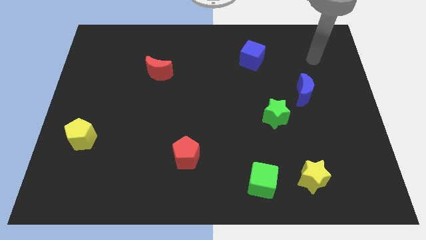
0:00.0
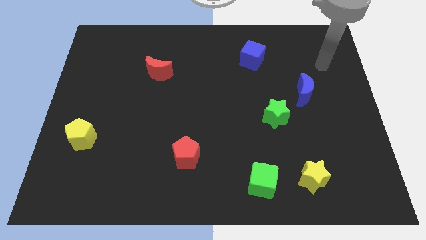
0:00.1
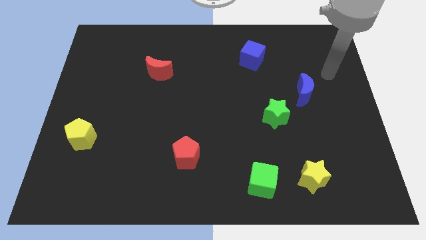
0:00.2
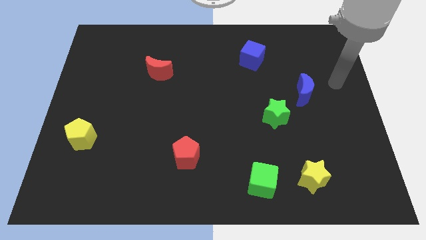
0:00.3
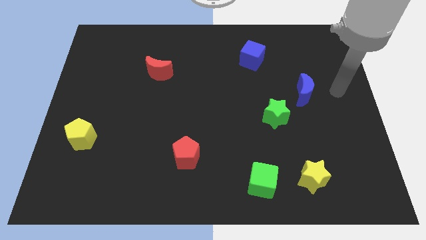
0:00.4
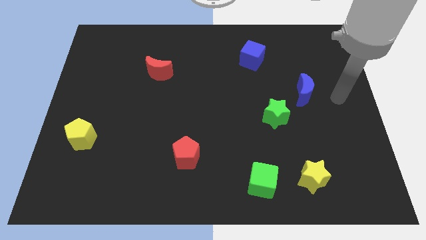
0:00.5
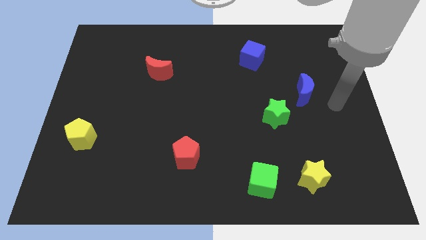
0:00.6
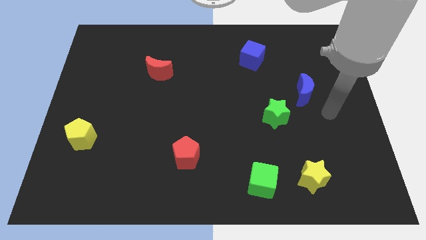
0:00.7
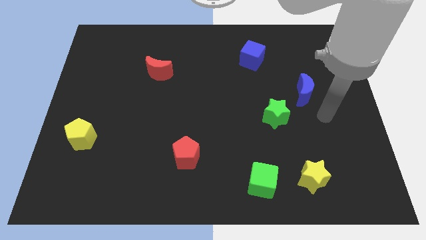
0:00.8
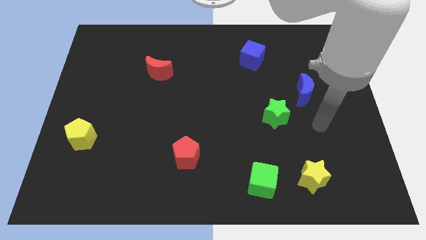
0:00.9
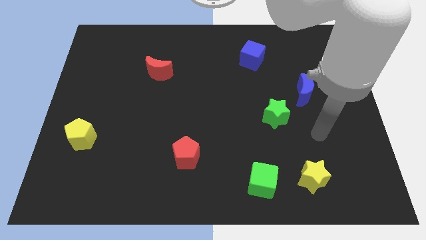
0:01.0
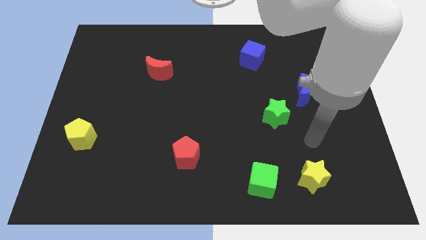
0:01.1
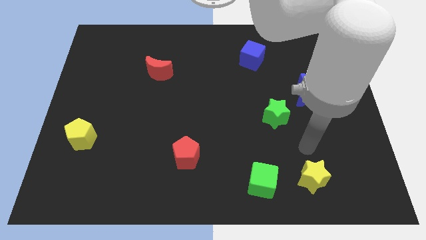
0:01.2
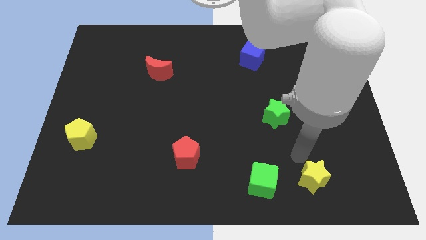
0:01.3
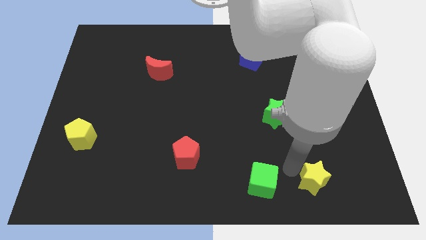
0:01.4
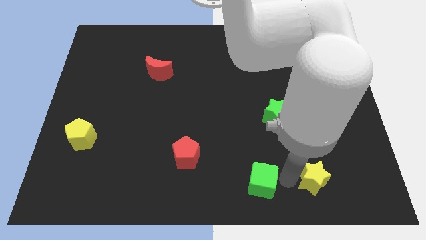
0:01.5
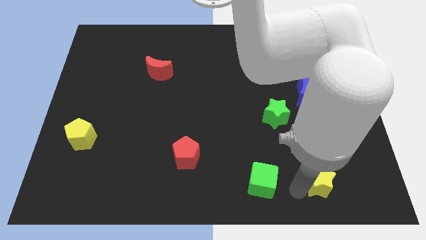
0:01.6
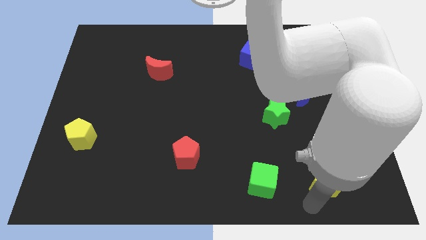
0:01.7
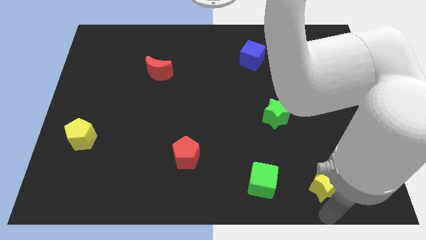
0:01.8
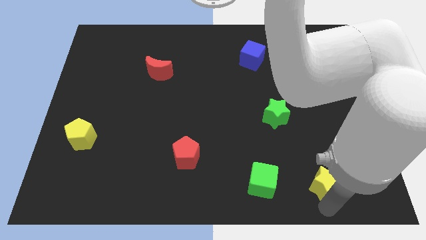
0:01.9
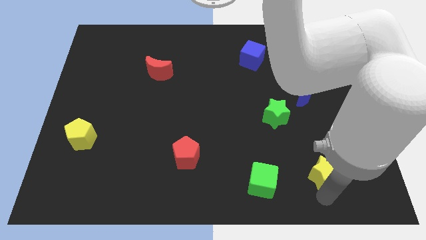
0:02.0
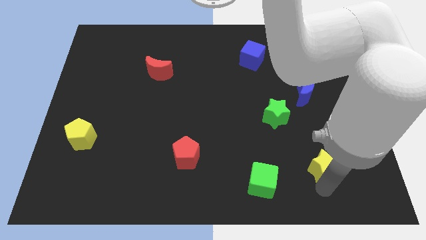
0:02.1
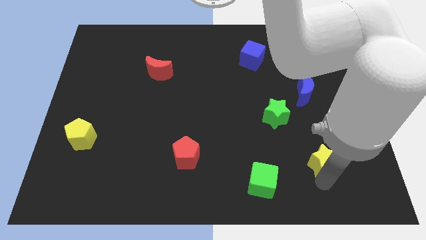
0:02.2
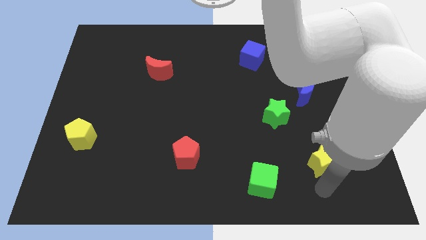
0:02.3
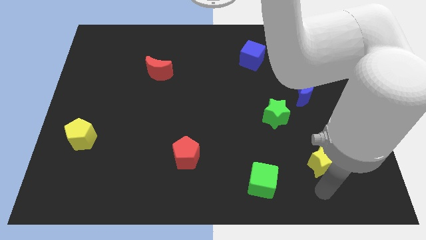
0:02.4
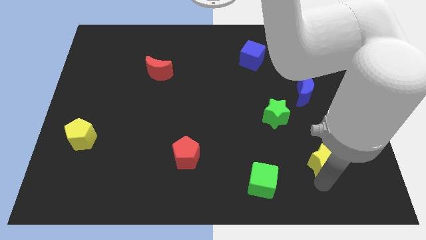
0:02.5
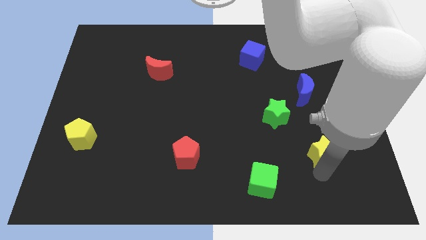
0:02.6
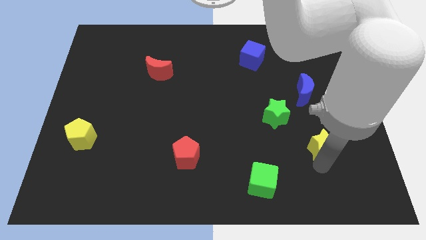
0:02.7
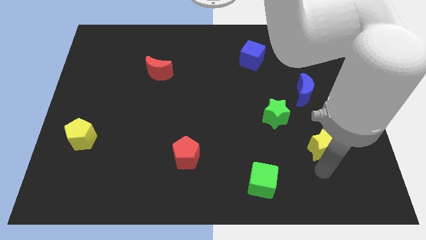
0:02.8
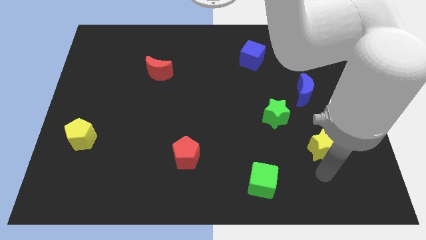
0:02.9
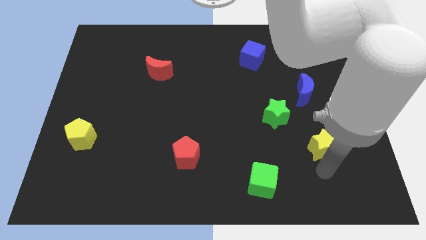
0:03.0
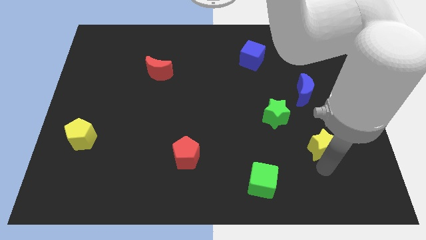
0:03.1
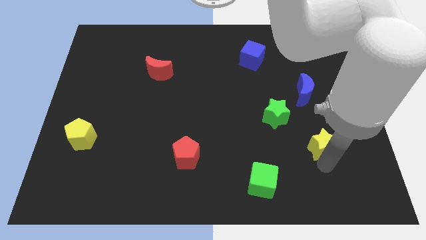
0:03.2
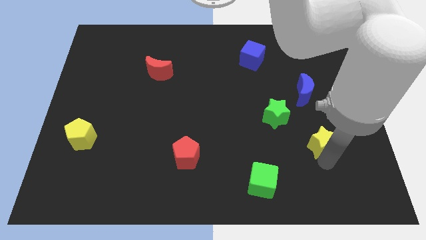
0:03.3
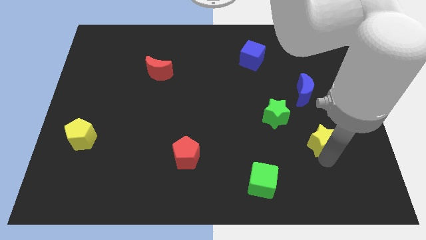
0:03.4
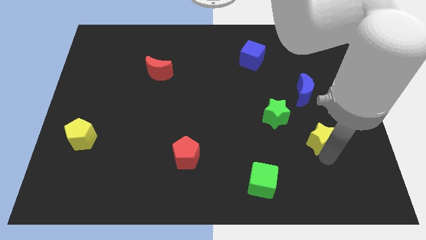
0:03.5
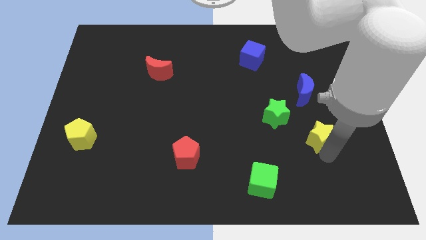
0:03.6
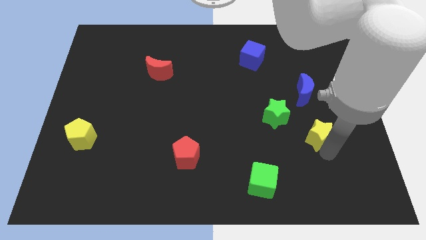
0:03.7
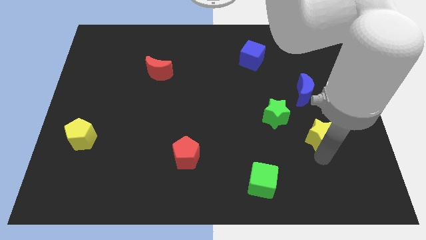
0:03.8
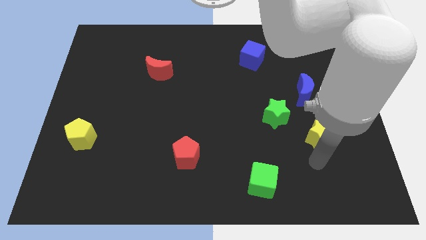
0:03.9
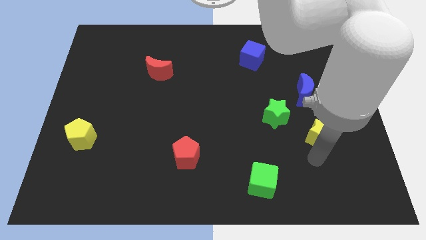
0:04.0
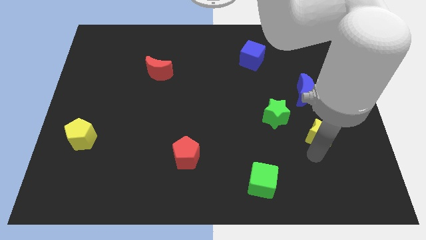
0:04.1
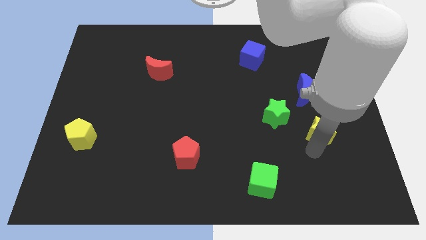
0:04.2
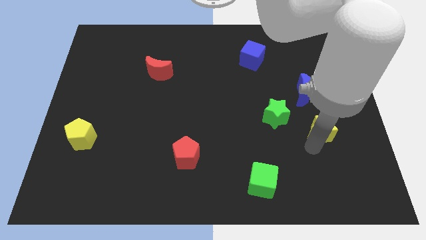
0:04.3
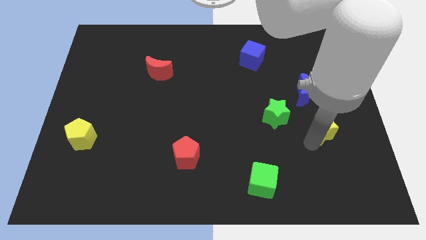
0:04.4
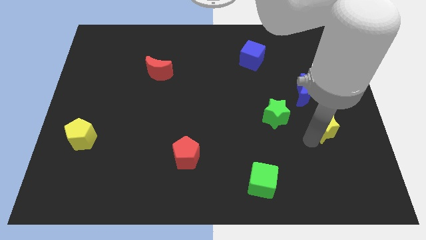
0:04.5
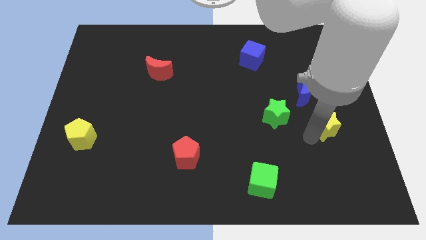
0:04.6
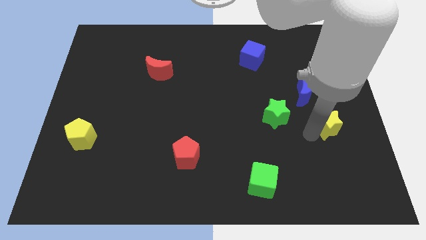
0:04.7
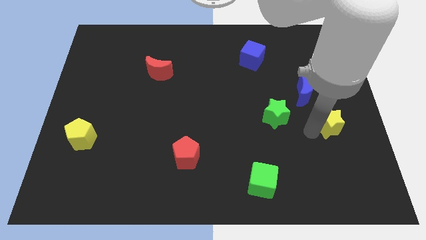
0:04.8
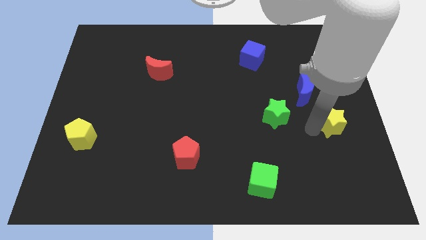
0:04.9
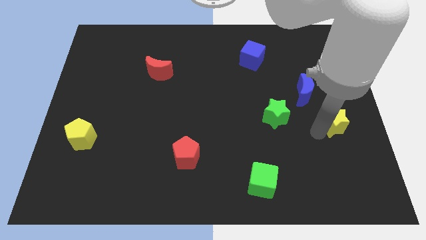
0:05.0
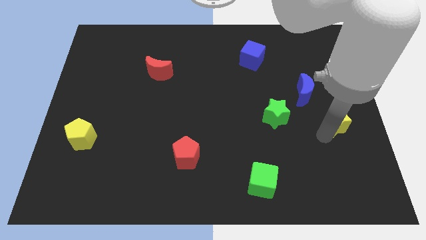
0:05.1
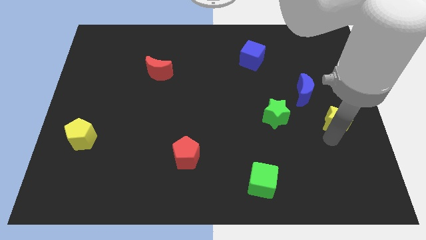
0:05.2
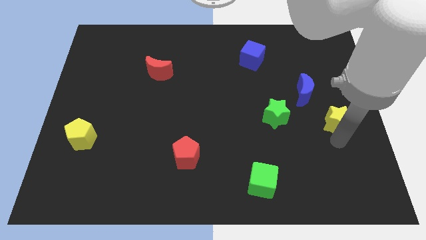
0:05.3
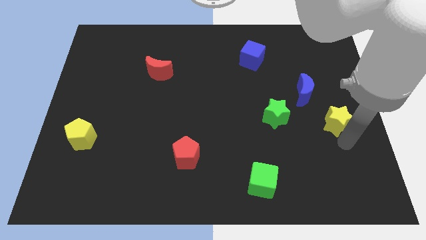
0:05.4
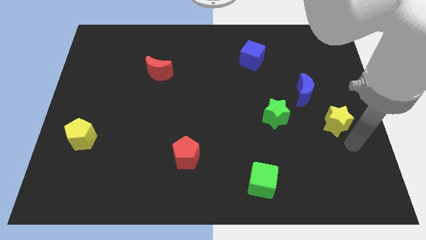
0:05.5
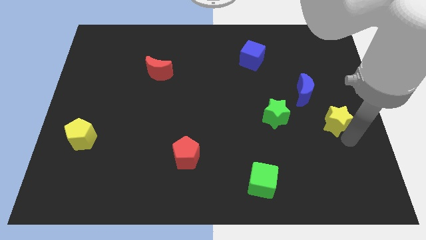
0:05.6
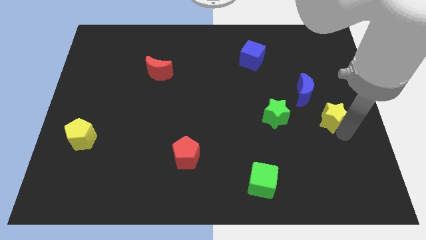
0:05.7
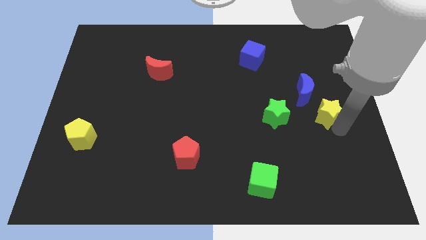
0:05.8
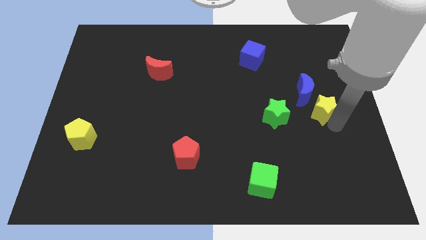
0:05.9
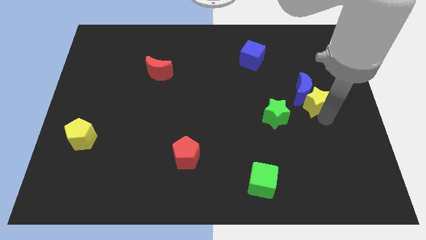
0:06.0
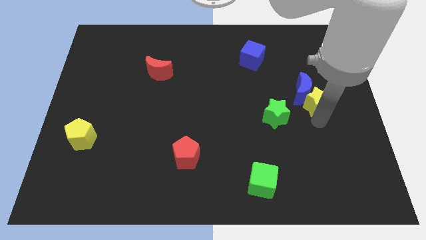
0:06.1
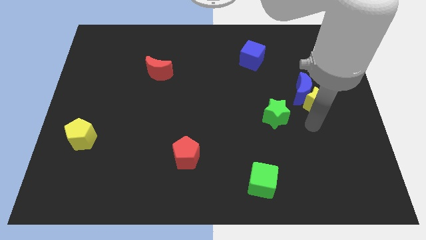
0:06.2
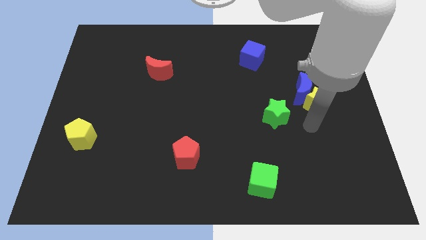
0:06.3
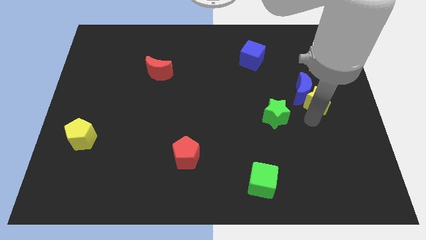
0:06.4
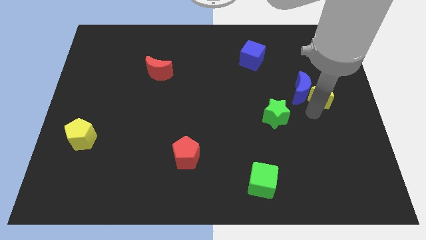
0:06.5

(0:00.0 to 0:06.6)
put the yellow star to the top right of the blue moon

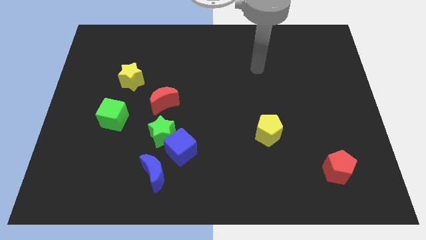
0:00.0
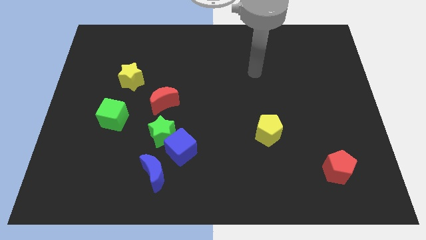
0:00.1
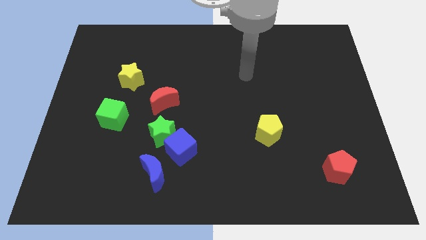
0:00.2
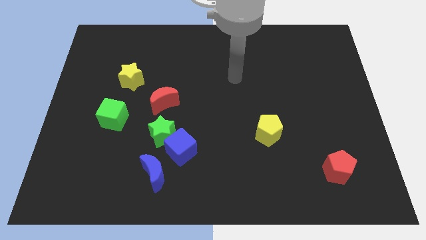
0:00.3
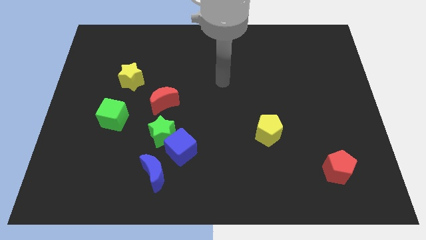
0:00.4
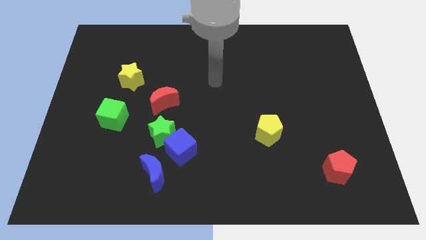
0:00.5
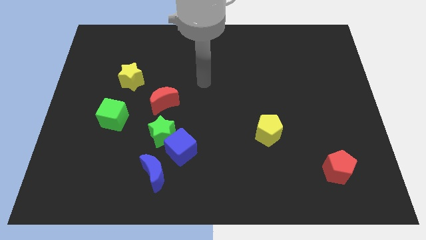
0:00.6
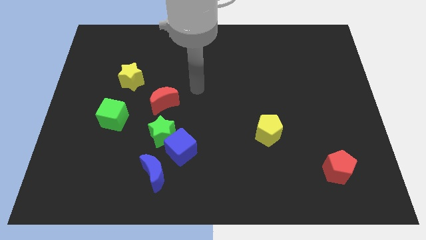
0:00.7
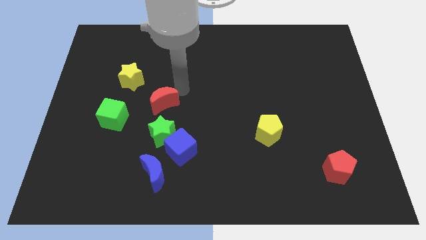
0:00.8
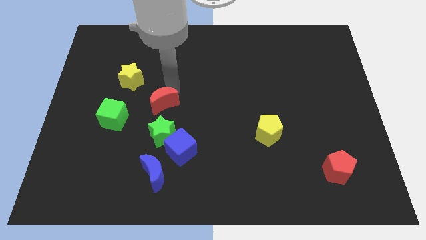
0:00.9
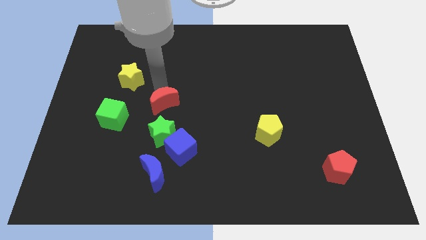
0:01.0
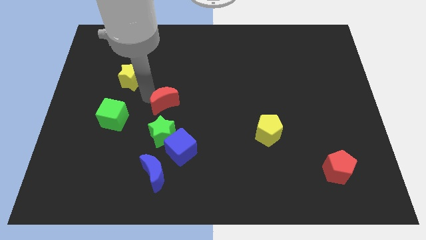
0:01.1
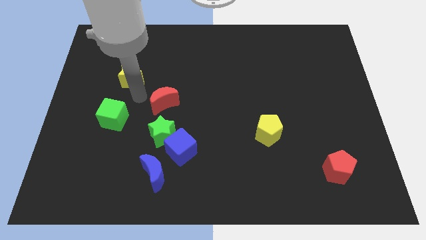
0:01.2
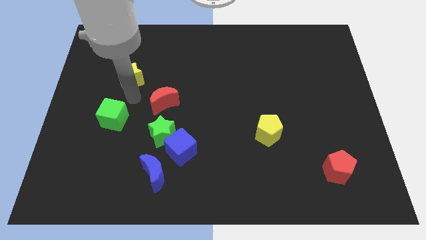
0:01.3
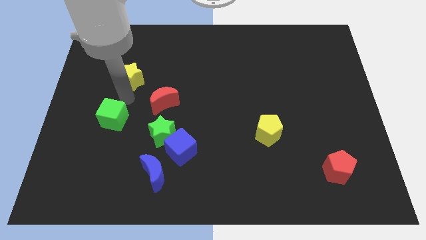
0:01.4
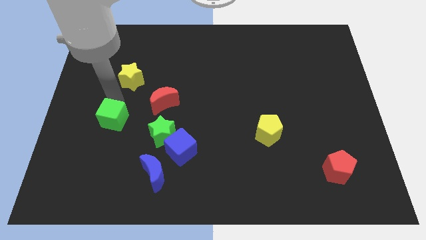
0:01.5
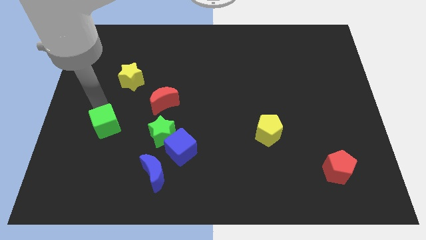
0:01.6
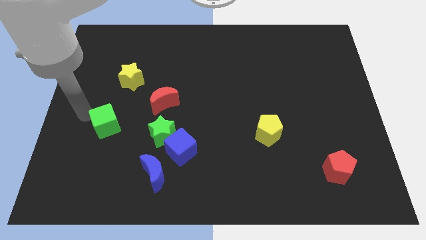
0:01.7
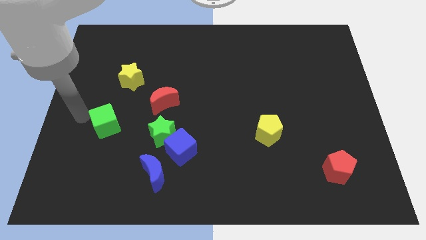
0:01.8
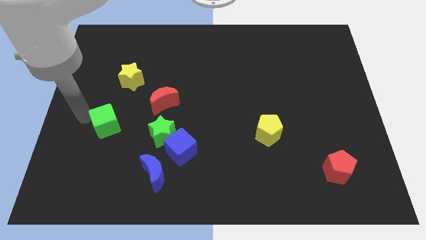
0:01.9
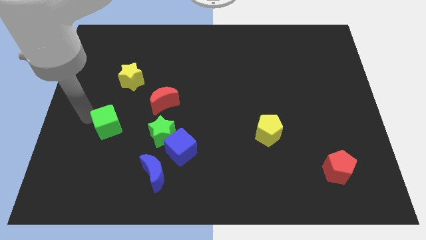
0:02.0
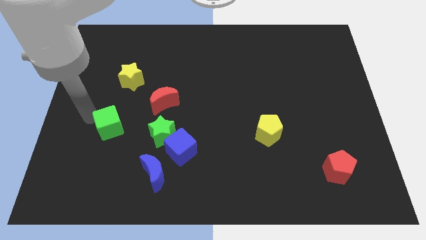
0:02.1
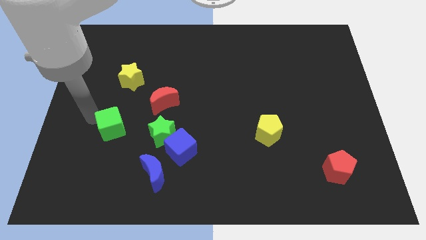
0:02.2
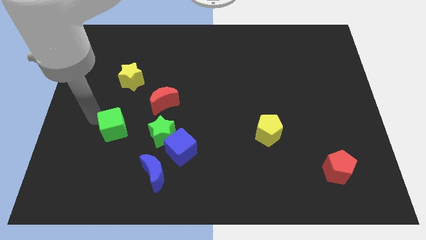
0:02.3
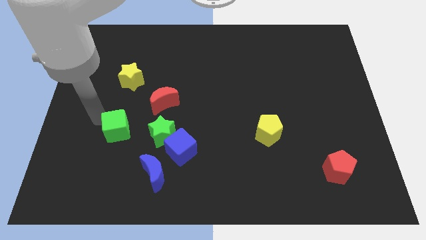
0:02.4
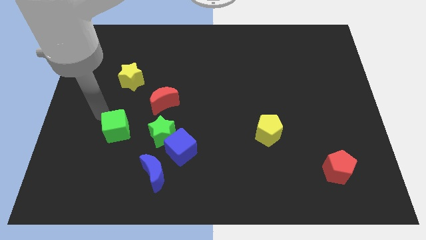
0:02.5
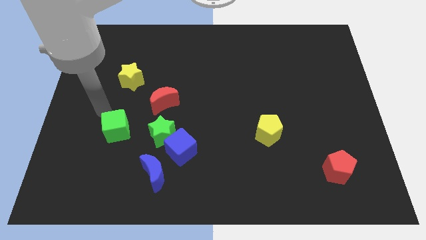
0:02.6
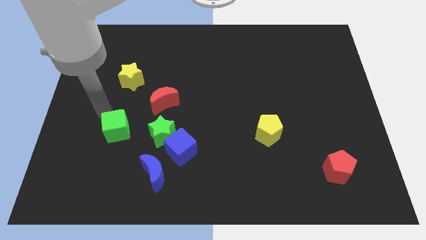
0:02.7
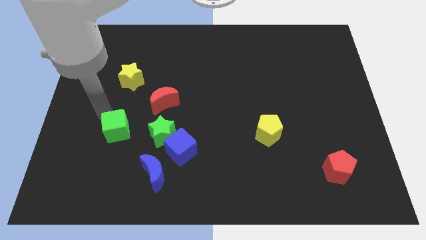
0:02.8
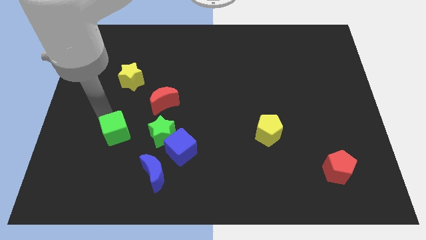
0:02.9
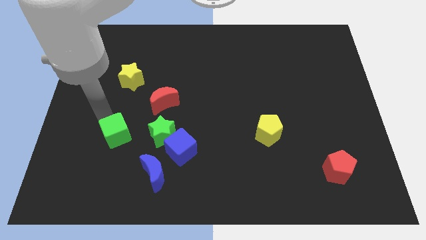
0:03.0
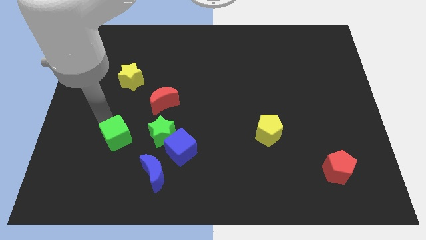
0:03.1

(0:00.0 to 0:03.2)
put the green cube to the left of the blue cube
